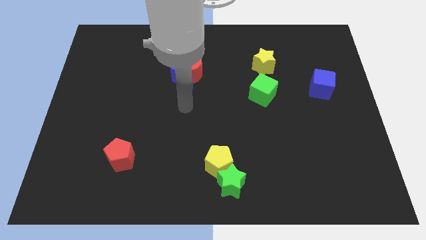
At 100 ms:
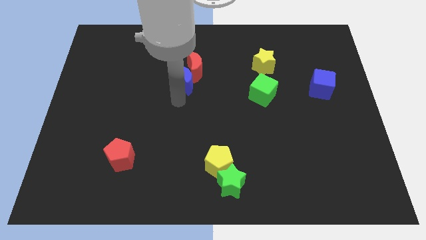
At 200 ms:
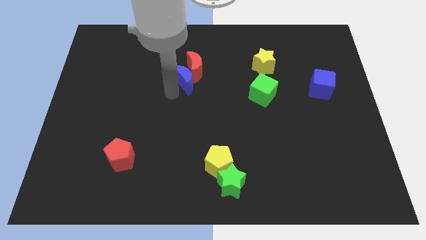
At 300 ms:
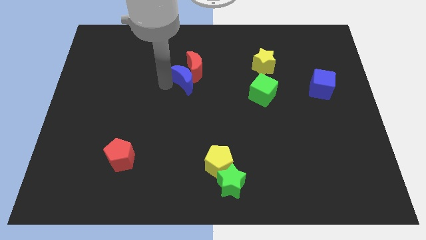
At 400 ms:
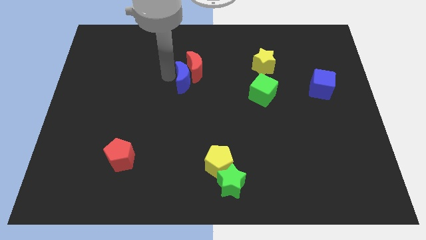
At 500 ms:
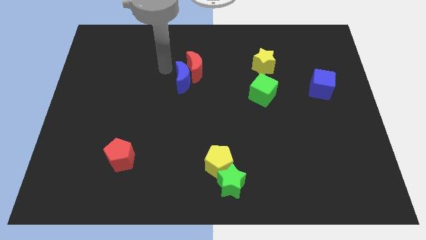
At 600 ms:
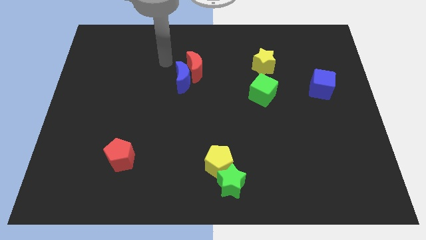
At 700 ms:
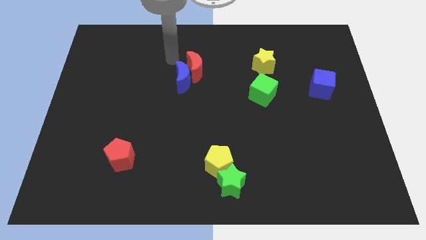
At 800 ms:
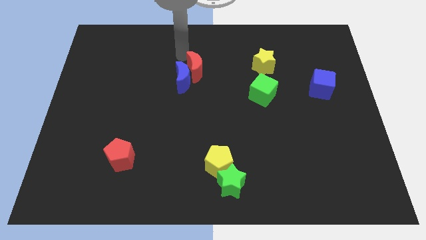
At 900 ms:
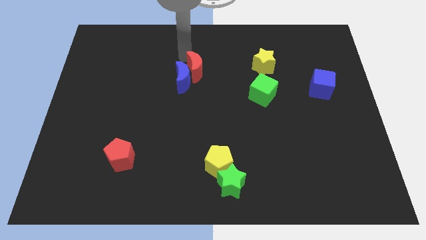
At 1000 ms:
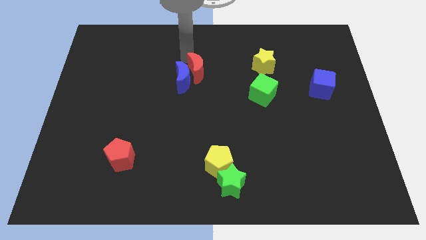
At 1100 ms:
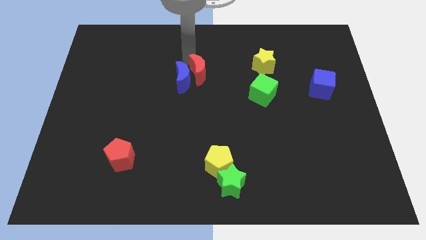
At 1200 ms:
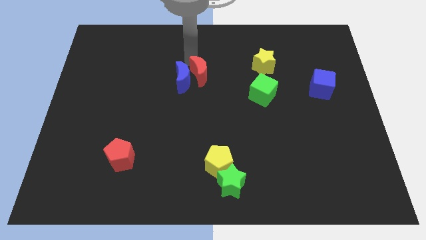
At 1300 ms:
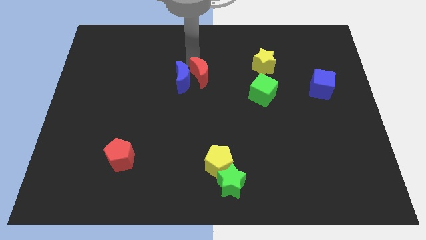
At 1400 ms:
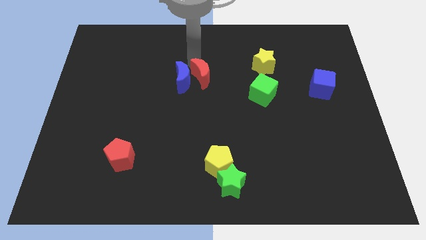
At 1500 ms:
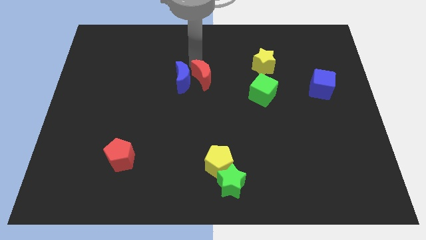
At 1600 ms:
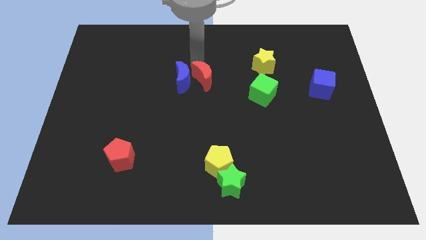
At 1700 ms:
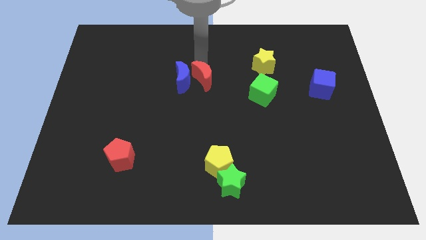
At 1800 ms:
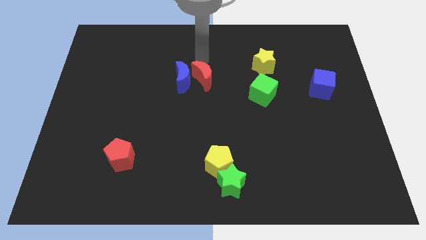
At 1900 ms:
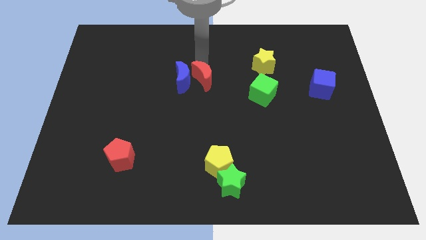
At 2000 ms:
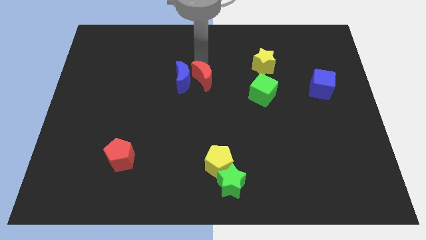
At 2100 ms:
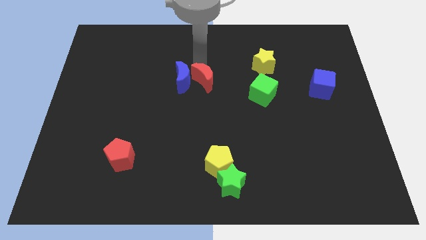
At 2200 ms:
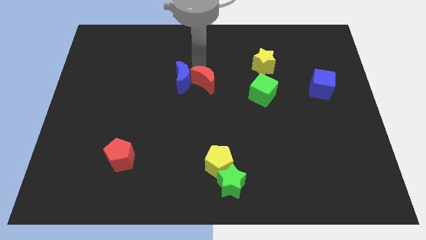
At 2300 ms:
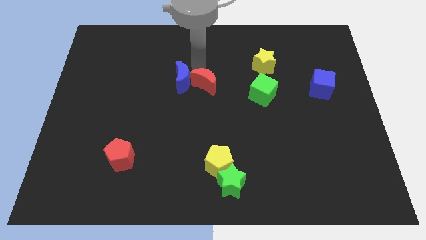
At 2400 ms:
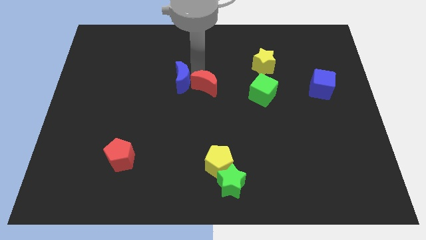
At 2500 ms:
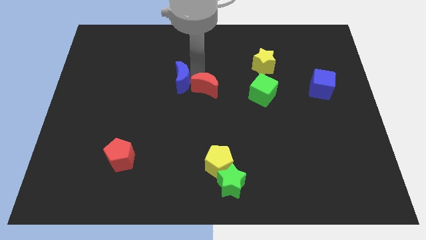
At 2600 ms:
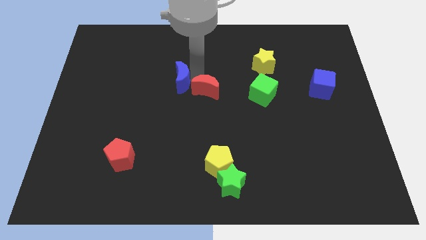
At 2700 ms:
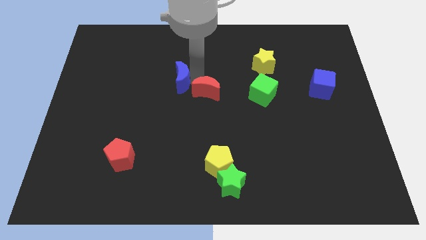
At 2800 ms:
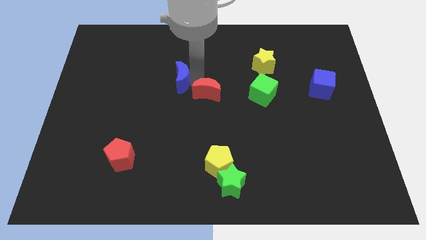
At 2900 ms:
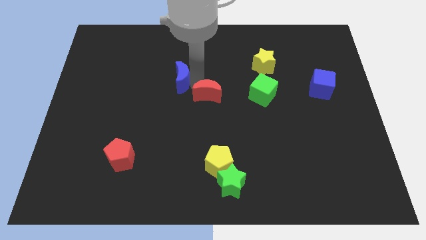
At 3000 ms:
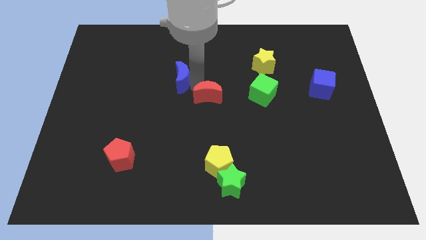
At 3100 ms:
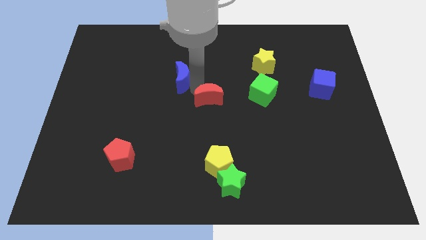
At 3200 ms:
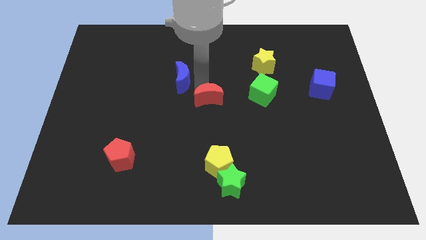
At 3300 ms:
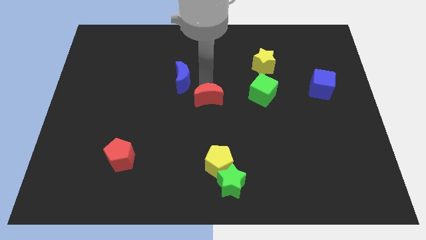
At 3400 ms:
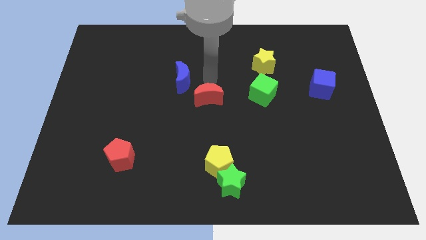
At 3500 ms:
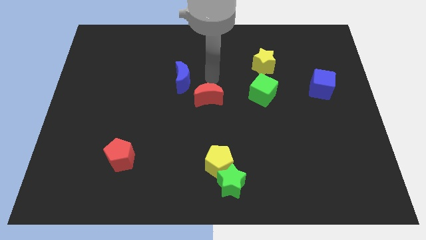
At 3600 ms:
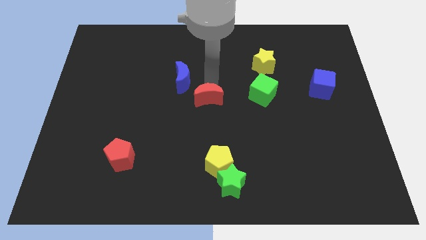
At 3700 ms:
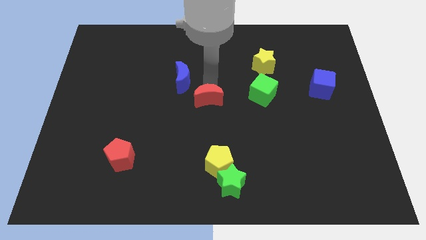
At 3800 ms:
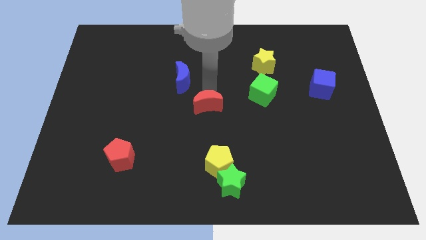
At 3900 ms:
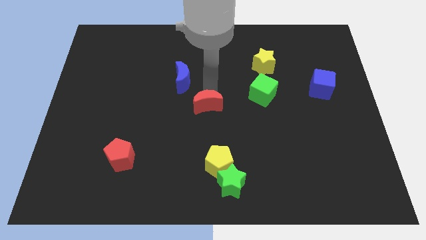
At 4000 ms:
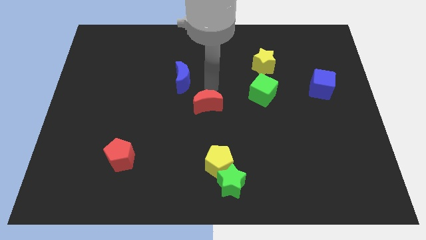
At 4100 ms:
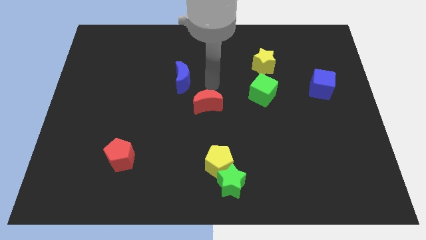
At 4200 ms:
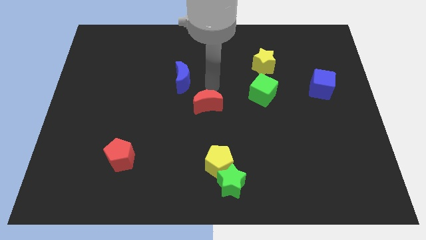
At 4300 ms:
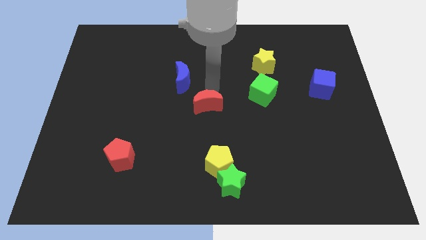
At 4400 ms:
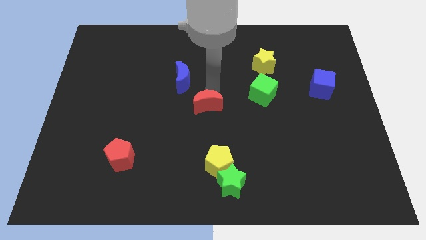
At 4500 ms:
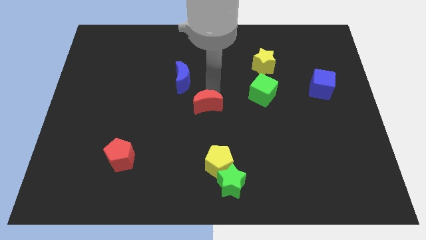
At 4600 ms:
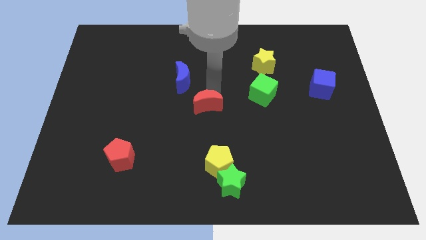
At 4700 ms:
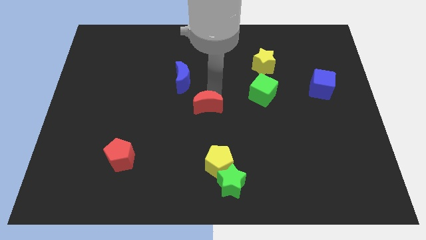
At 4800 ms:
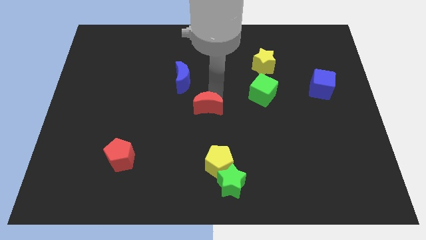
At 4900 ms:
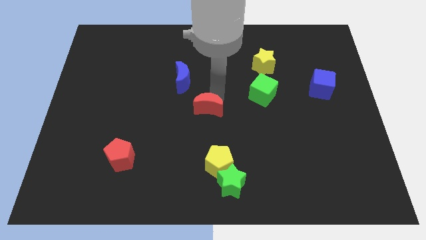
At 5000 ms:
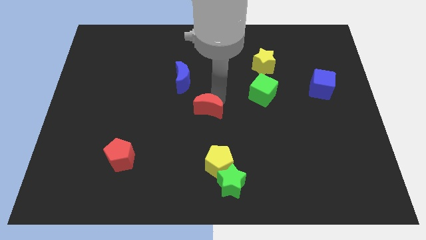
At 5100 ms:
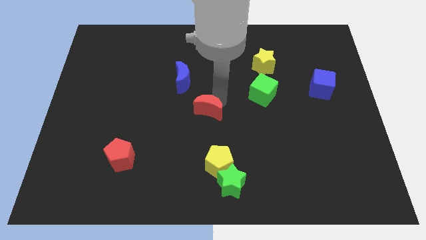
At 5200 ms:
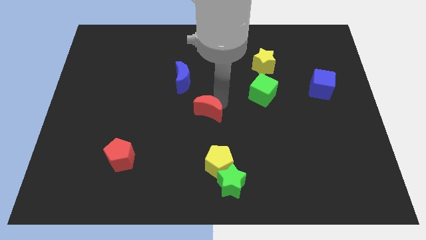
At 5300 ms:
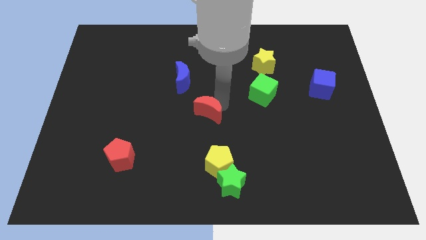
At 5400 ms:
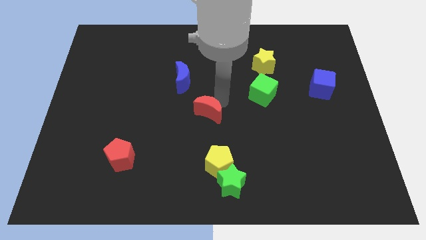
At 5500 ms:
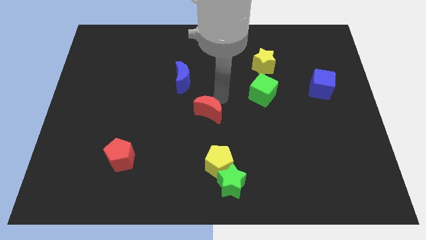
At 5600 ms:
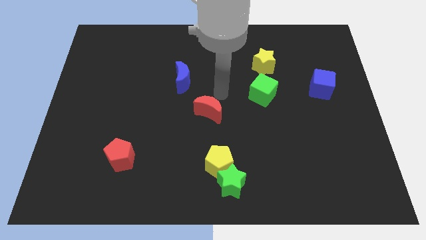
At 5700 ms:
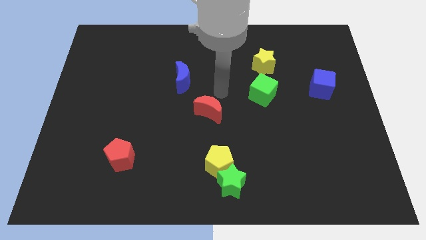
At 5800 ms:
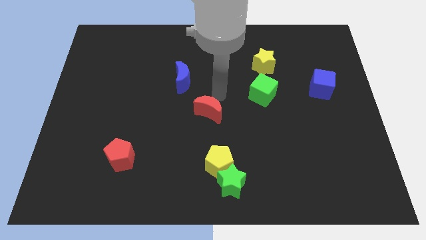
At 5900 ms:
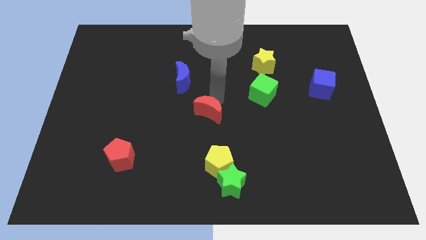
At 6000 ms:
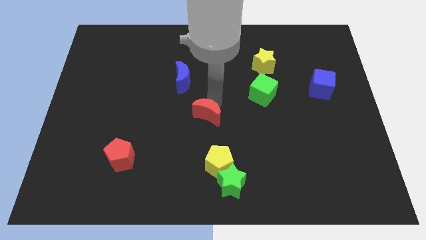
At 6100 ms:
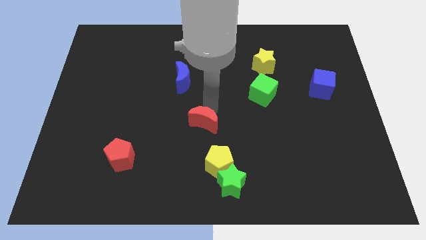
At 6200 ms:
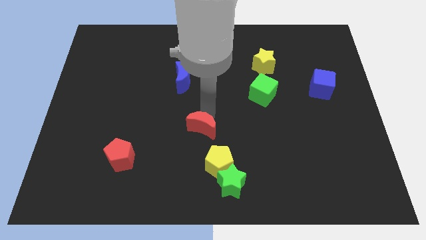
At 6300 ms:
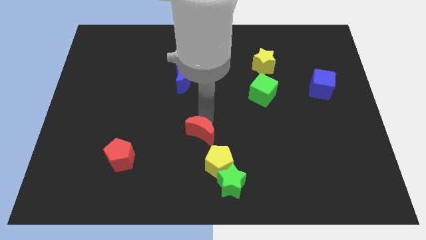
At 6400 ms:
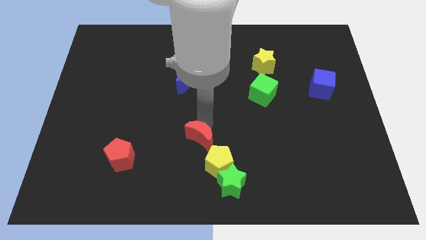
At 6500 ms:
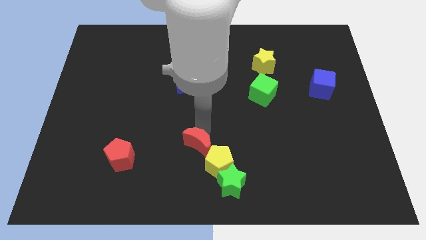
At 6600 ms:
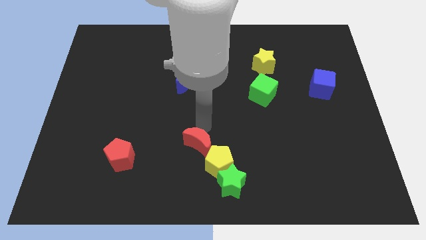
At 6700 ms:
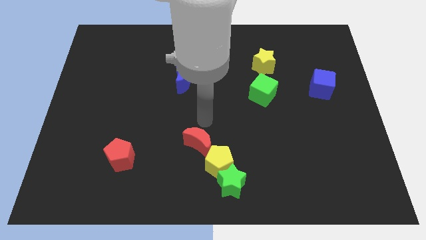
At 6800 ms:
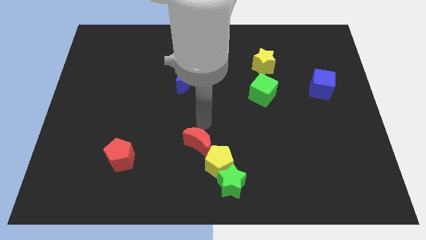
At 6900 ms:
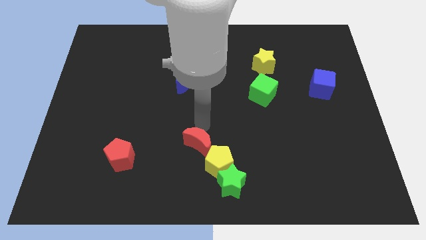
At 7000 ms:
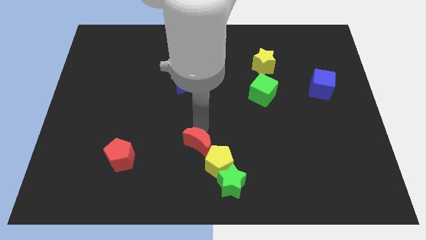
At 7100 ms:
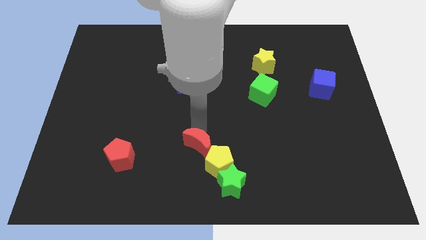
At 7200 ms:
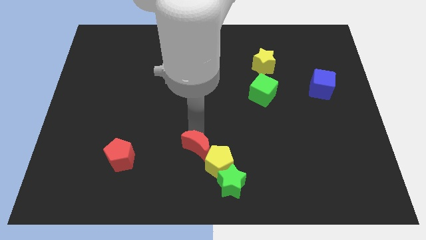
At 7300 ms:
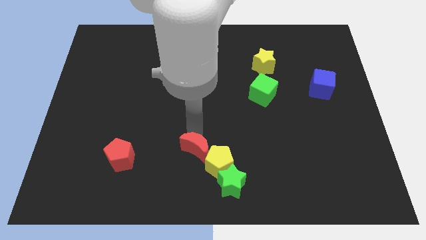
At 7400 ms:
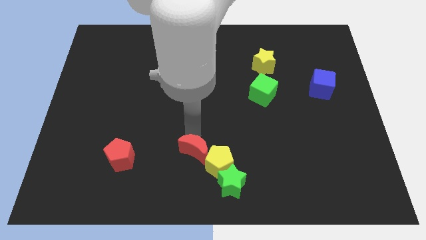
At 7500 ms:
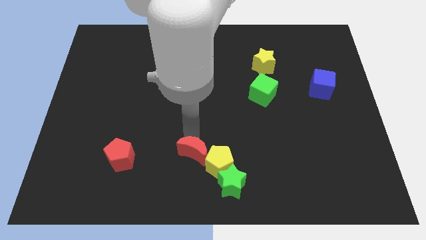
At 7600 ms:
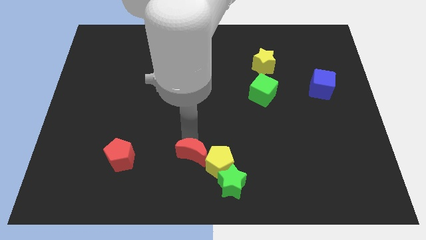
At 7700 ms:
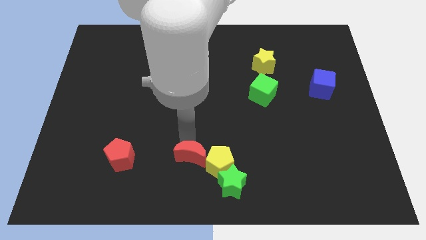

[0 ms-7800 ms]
move the red moon to the bottom
